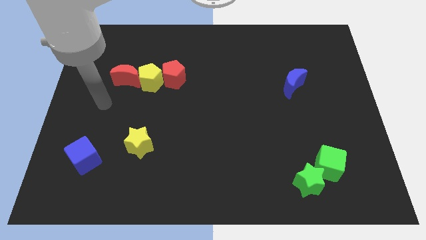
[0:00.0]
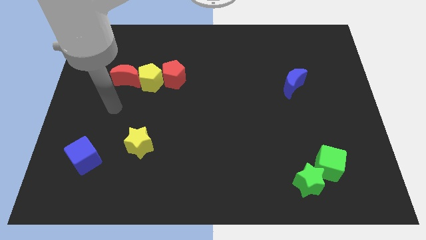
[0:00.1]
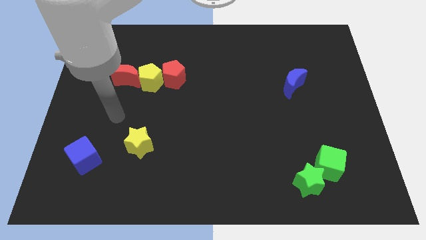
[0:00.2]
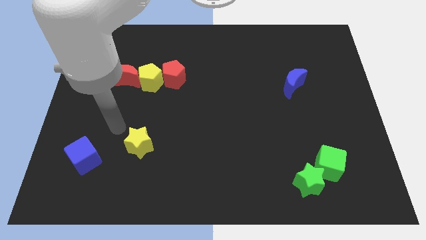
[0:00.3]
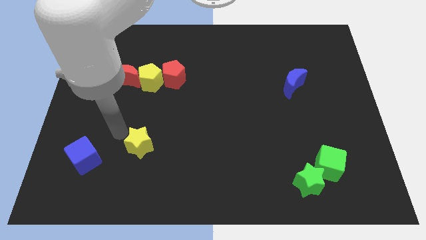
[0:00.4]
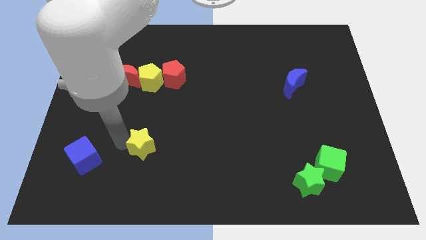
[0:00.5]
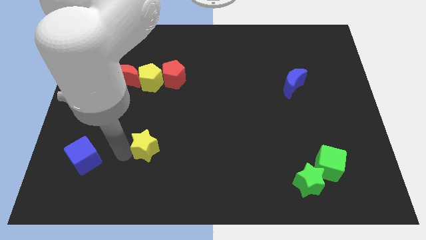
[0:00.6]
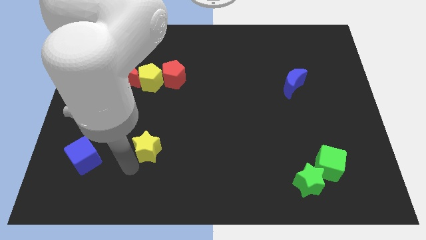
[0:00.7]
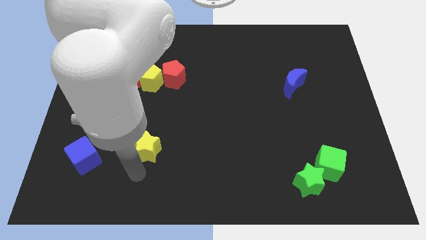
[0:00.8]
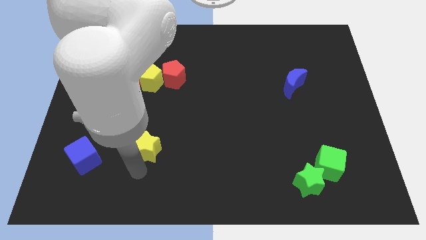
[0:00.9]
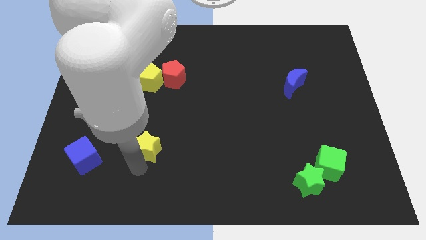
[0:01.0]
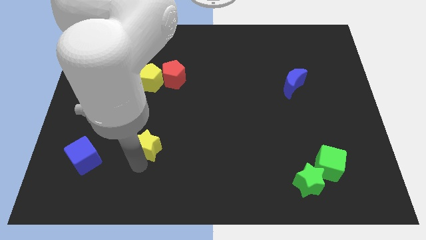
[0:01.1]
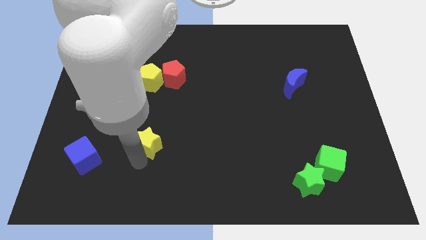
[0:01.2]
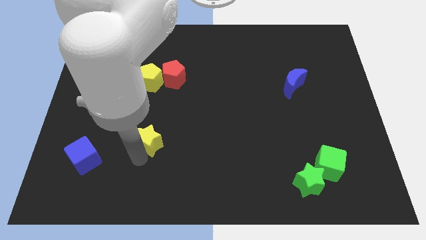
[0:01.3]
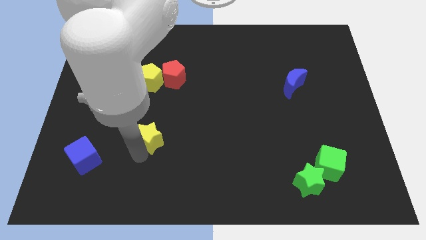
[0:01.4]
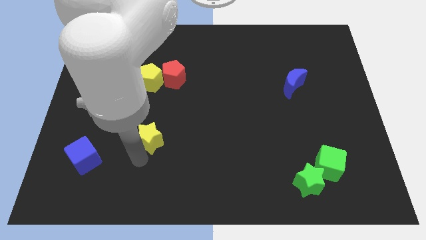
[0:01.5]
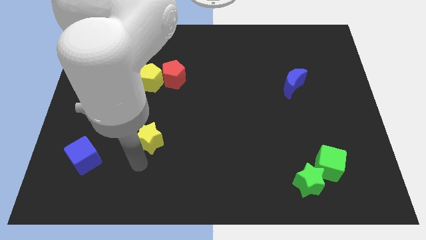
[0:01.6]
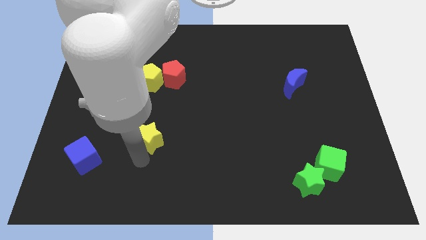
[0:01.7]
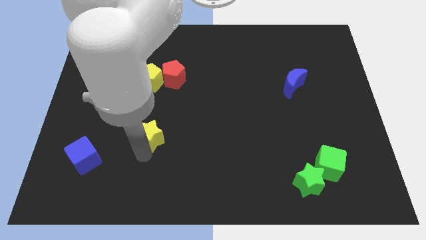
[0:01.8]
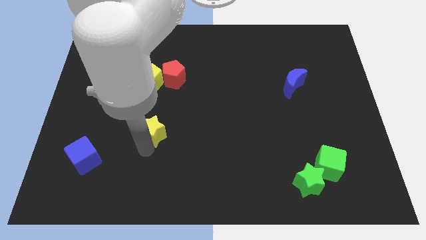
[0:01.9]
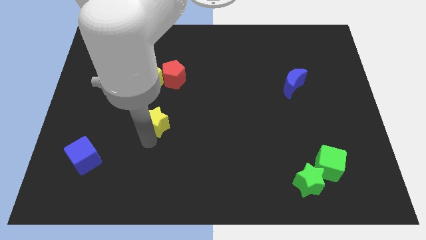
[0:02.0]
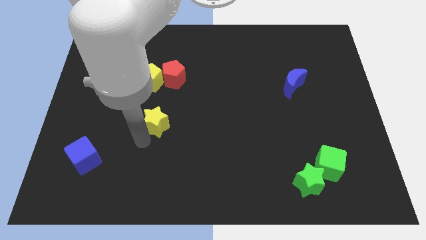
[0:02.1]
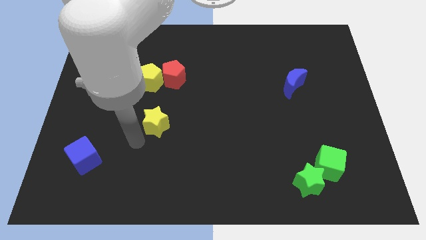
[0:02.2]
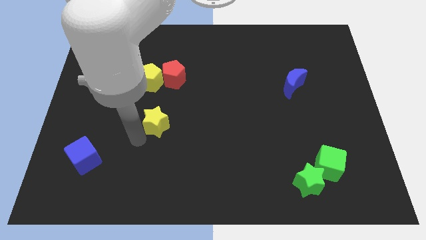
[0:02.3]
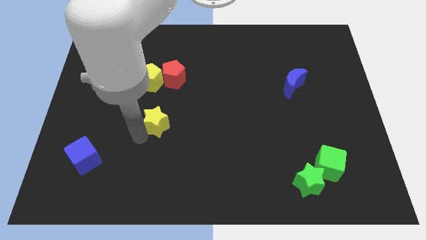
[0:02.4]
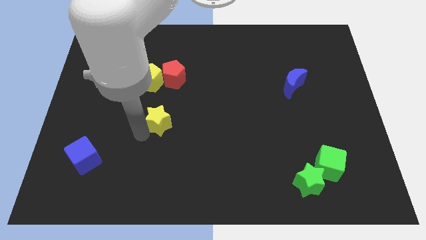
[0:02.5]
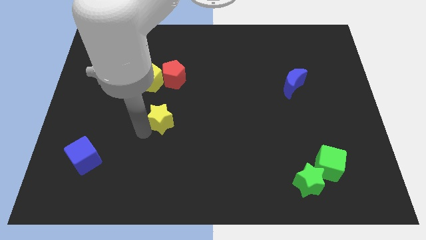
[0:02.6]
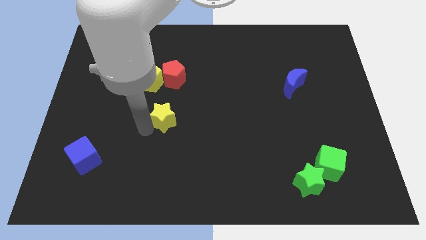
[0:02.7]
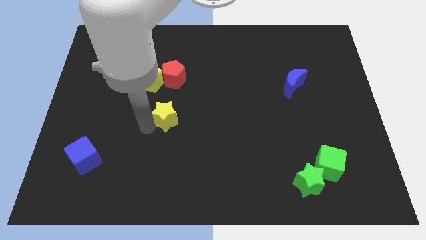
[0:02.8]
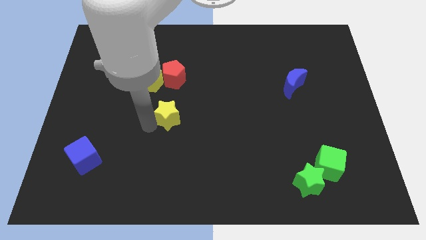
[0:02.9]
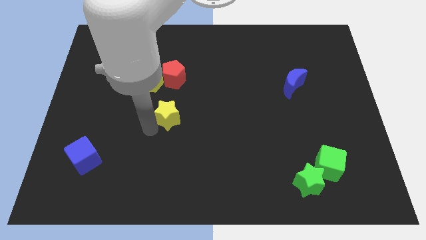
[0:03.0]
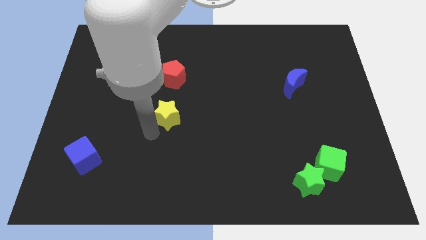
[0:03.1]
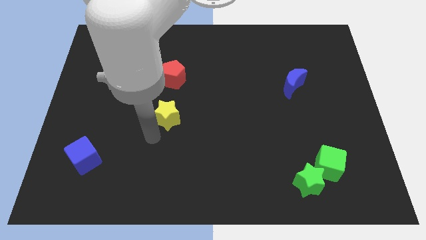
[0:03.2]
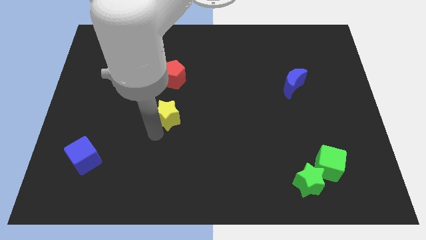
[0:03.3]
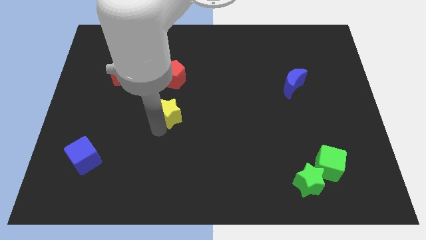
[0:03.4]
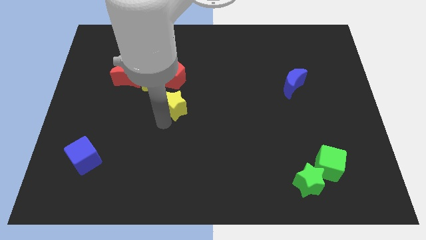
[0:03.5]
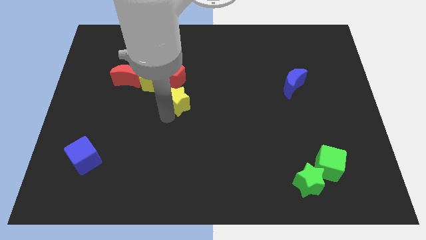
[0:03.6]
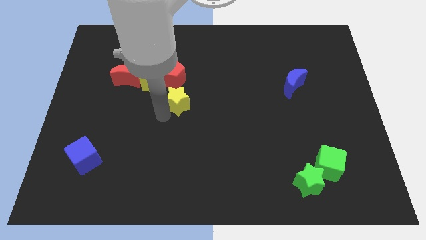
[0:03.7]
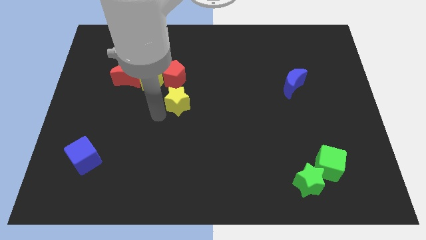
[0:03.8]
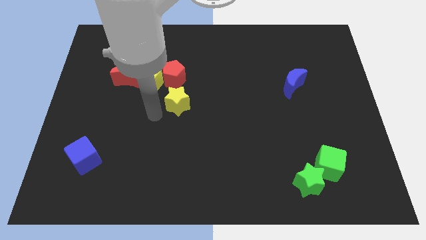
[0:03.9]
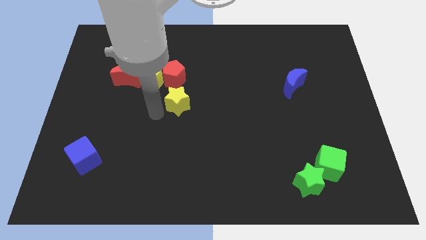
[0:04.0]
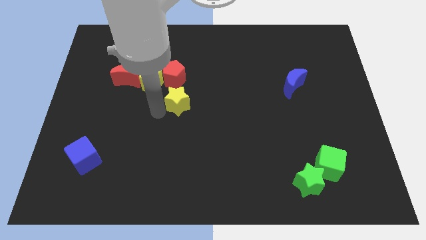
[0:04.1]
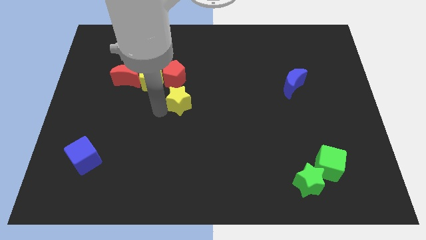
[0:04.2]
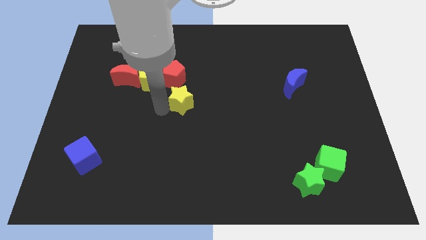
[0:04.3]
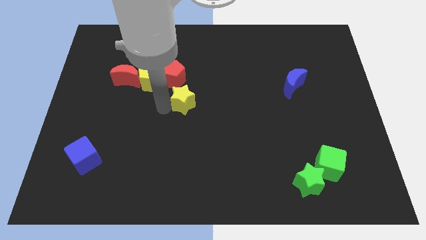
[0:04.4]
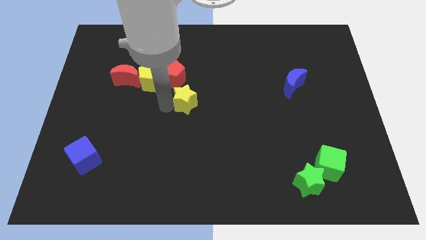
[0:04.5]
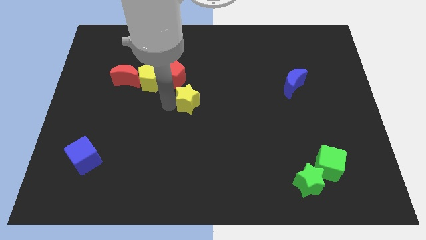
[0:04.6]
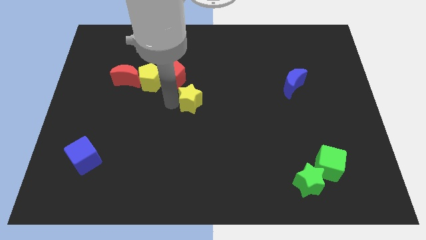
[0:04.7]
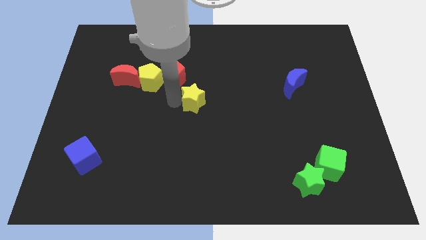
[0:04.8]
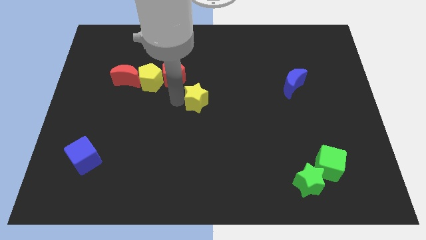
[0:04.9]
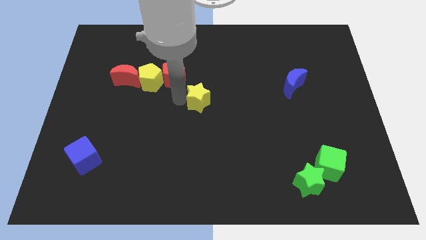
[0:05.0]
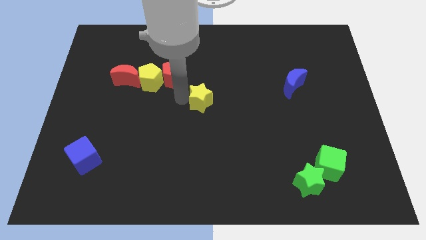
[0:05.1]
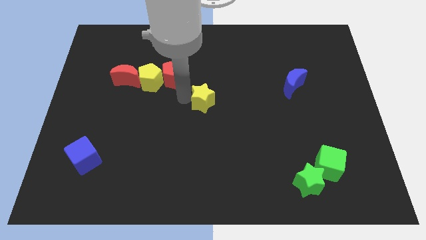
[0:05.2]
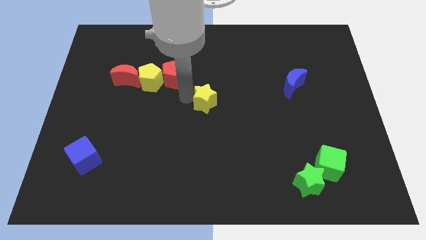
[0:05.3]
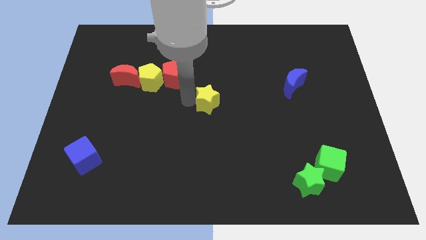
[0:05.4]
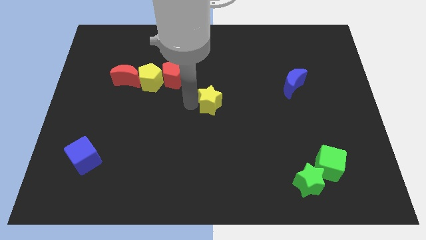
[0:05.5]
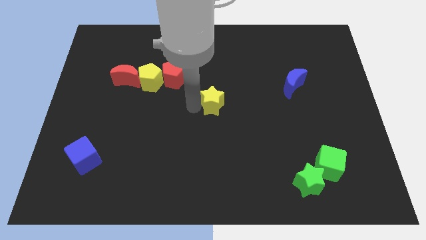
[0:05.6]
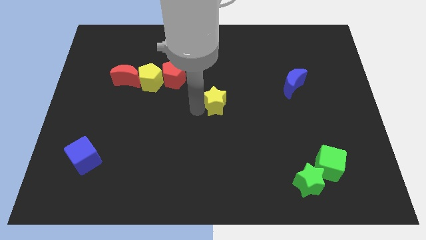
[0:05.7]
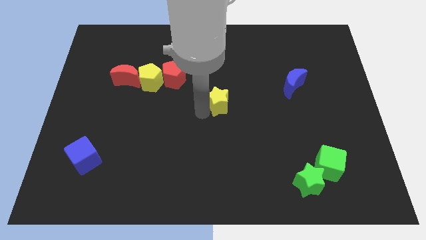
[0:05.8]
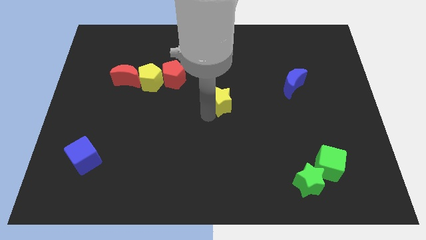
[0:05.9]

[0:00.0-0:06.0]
move the yellow star diagonally up and right

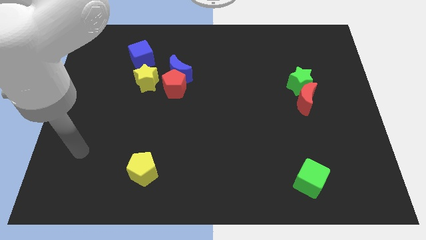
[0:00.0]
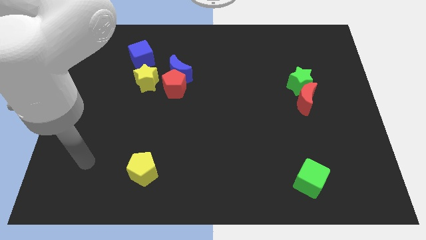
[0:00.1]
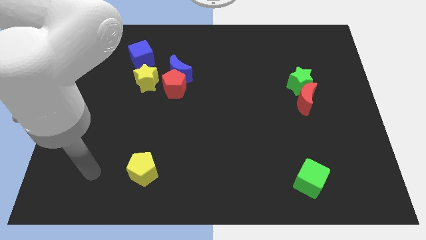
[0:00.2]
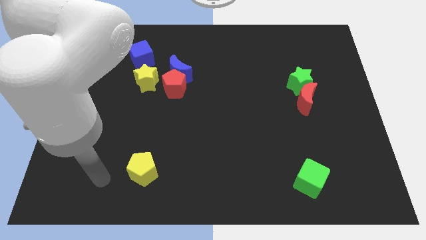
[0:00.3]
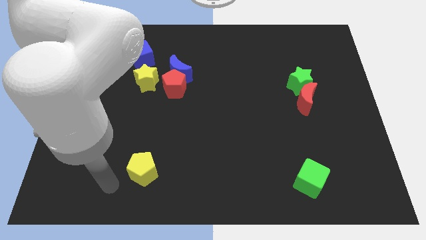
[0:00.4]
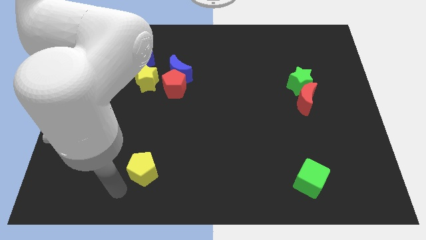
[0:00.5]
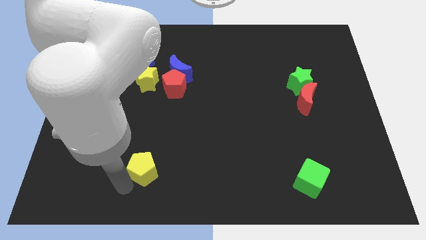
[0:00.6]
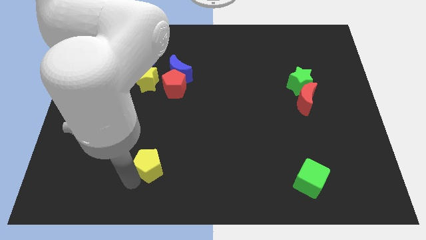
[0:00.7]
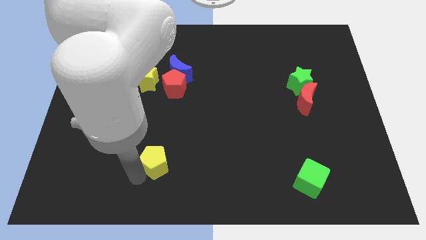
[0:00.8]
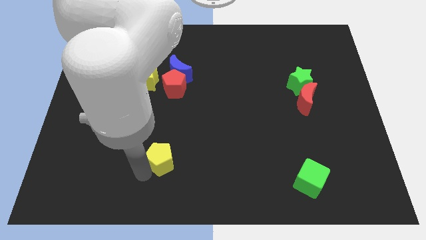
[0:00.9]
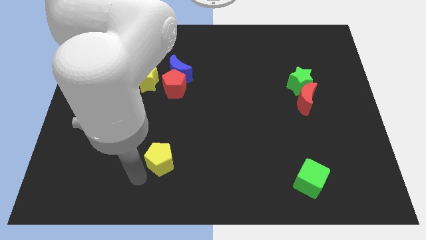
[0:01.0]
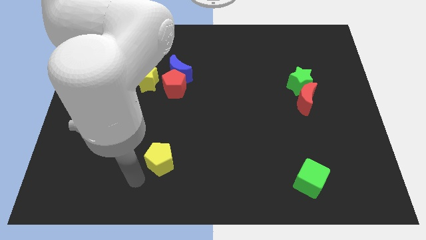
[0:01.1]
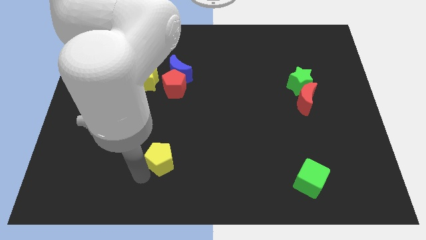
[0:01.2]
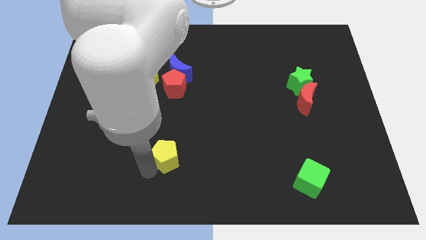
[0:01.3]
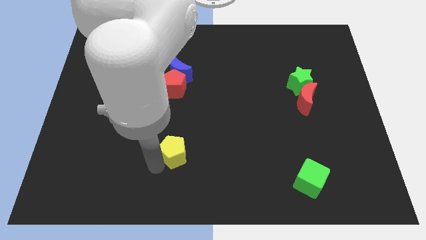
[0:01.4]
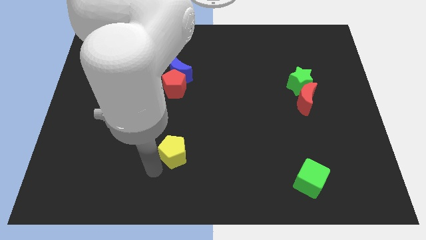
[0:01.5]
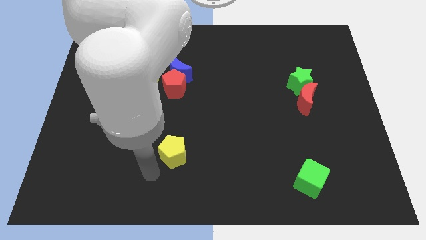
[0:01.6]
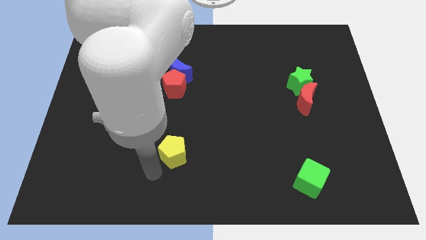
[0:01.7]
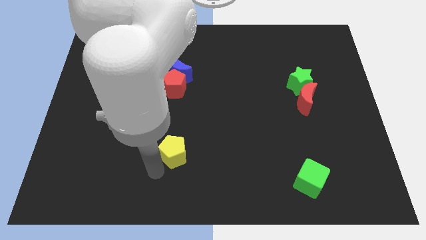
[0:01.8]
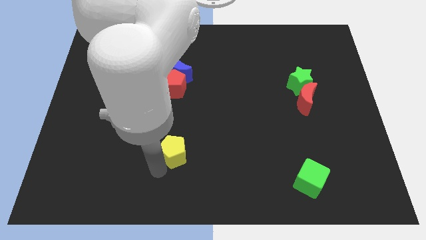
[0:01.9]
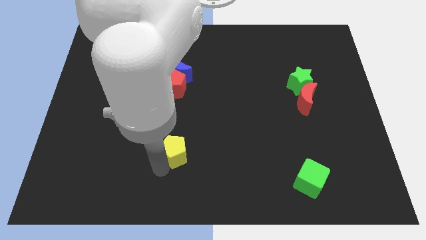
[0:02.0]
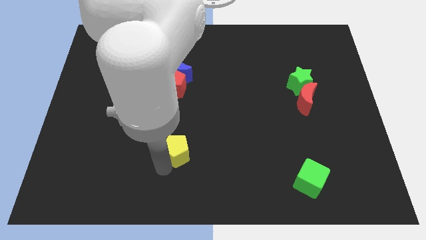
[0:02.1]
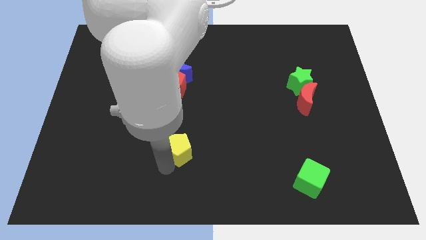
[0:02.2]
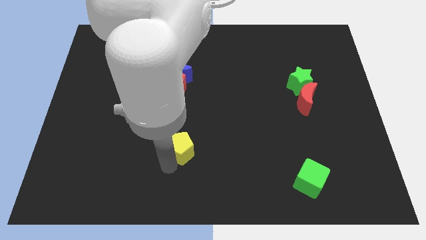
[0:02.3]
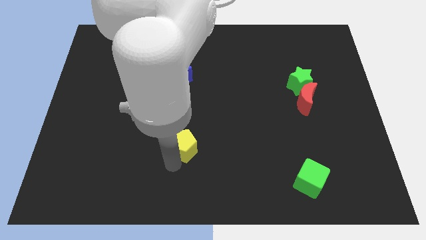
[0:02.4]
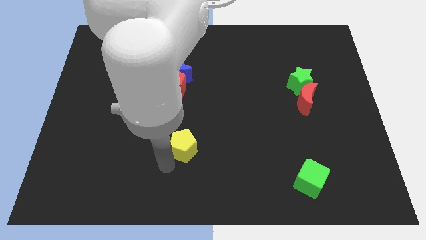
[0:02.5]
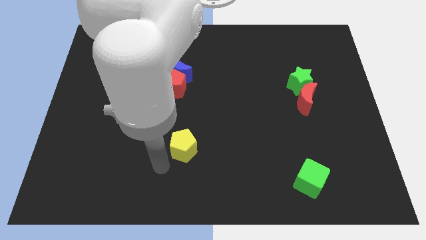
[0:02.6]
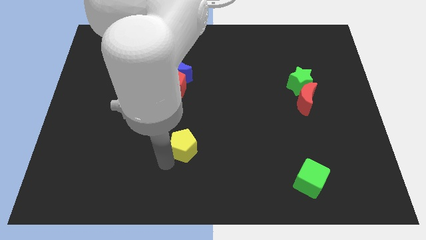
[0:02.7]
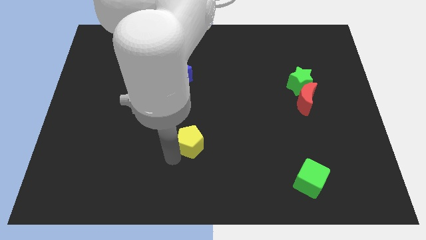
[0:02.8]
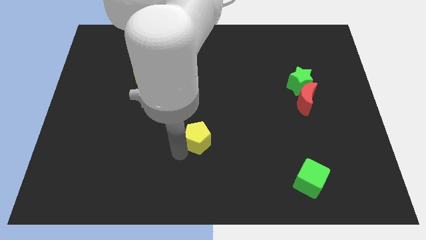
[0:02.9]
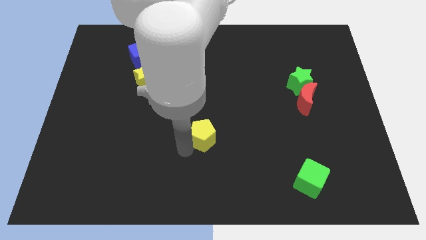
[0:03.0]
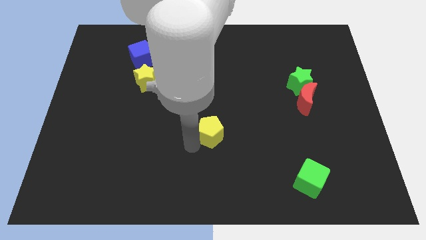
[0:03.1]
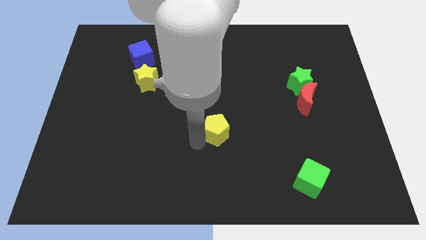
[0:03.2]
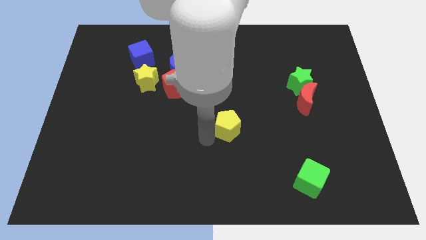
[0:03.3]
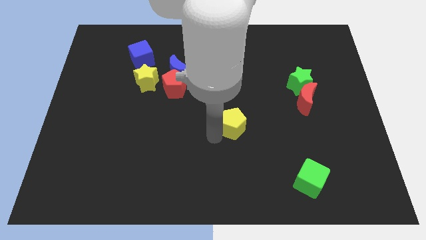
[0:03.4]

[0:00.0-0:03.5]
push the yellow pentagon upwards and then right
